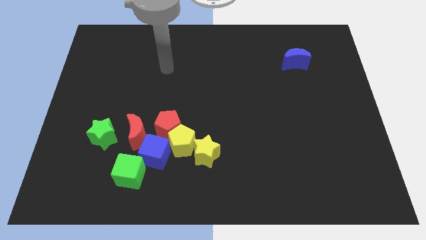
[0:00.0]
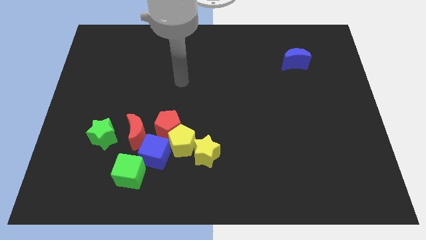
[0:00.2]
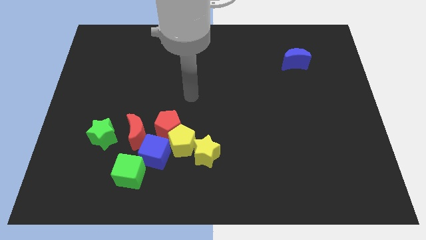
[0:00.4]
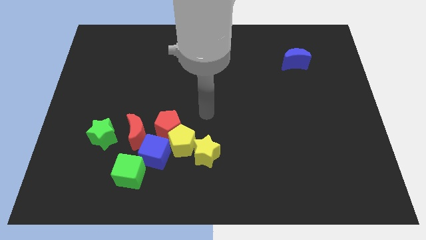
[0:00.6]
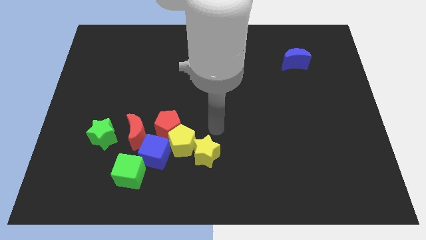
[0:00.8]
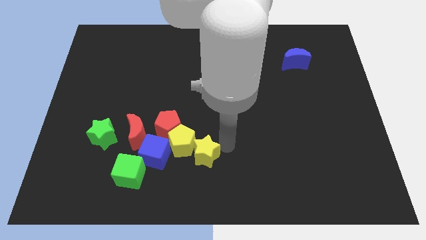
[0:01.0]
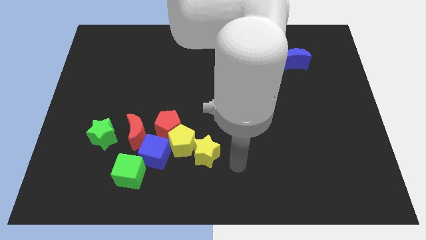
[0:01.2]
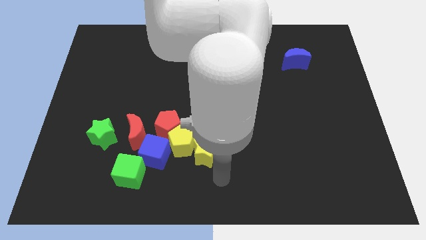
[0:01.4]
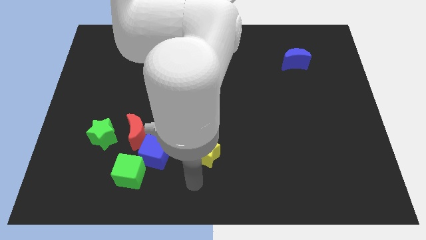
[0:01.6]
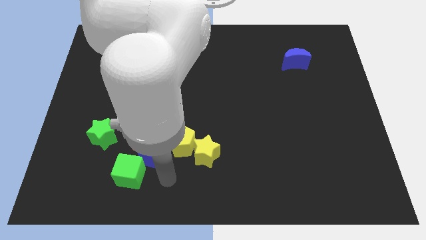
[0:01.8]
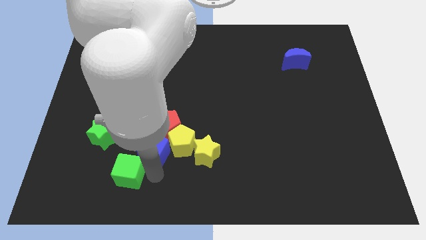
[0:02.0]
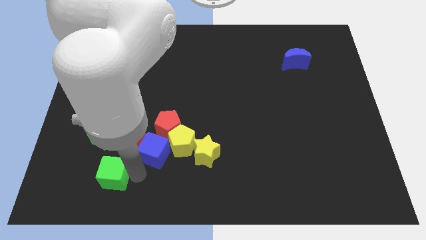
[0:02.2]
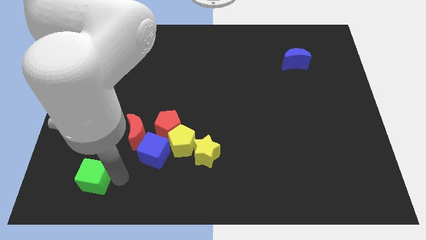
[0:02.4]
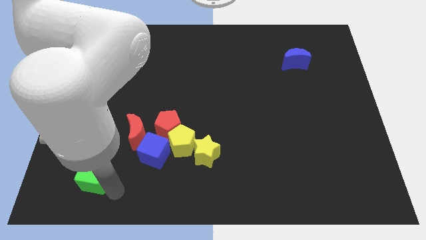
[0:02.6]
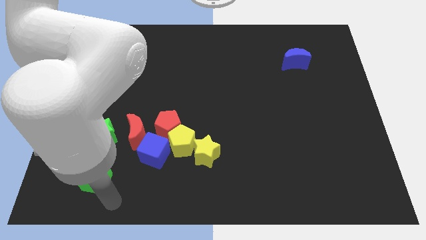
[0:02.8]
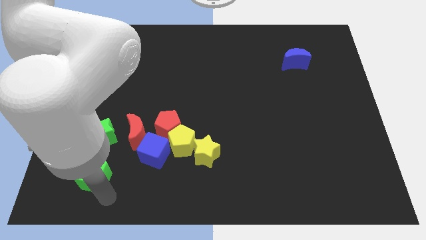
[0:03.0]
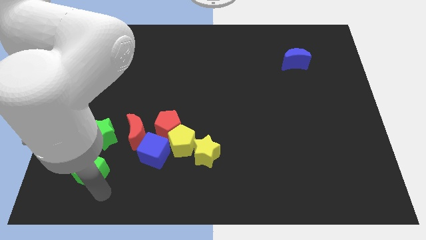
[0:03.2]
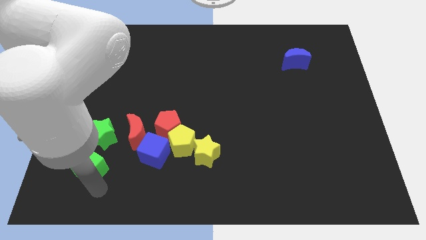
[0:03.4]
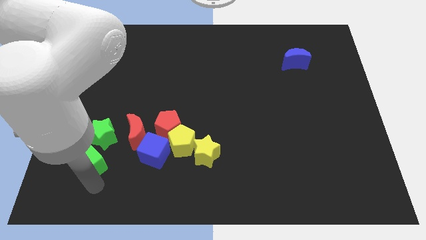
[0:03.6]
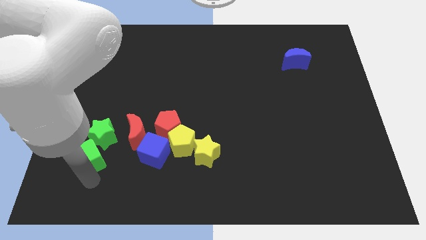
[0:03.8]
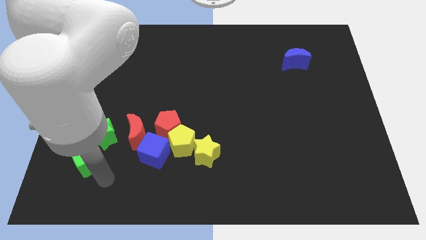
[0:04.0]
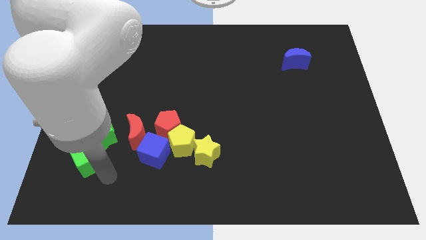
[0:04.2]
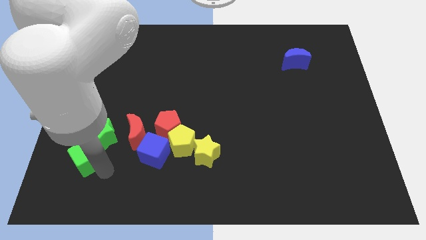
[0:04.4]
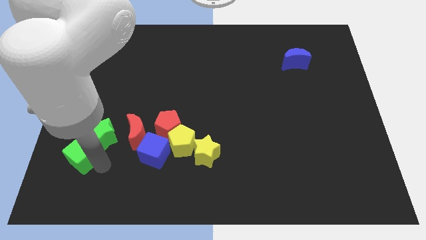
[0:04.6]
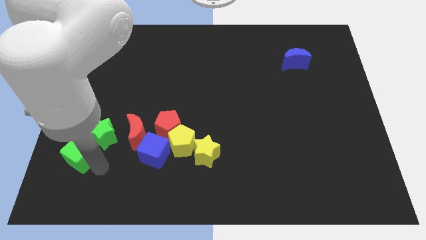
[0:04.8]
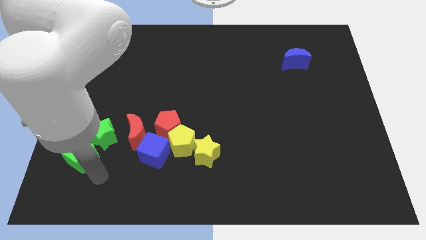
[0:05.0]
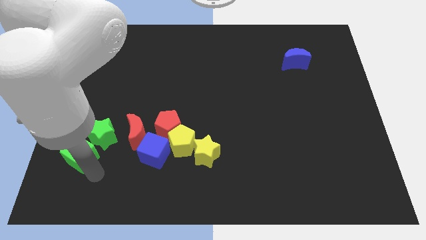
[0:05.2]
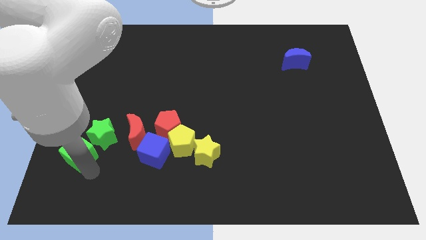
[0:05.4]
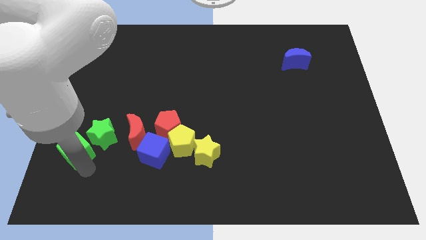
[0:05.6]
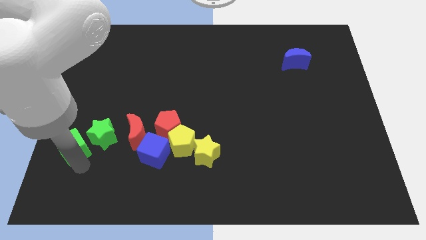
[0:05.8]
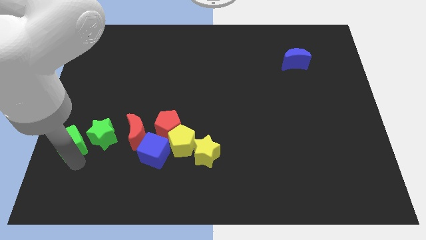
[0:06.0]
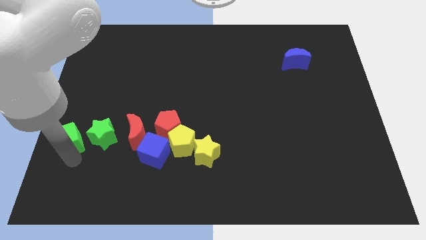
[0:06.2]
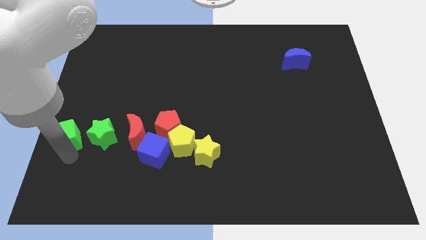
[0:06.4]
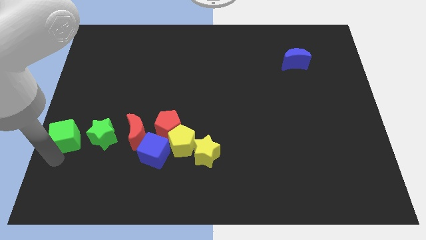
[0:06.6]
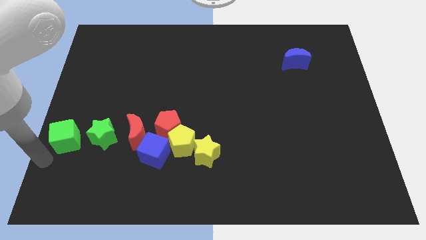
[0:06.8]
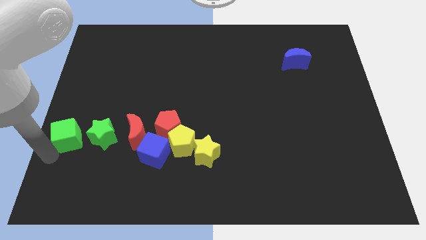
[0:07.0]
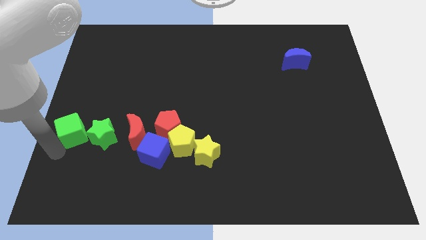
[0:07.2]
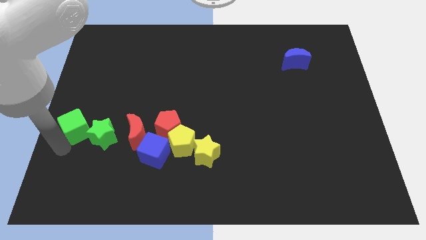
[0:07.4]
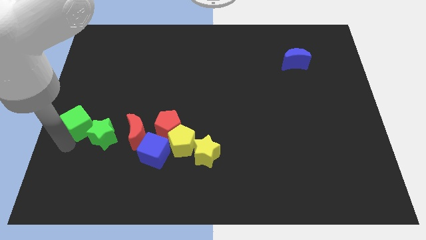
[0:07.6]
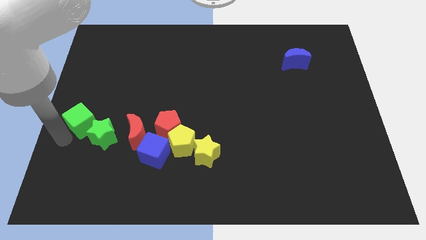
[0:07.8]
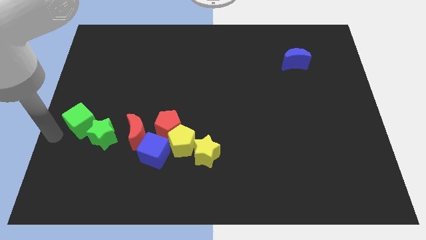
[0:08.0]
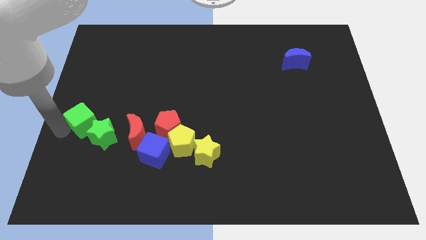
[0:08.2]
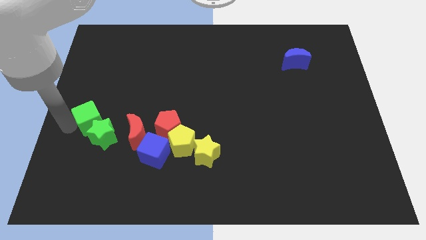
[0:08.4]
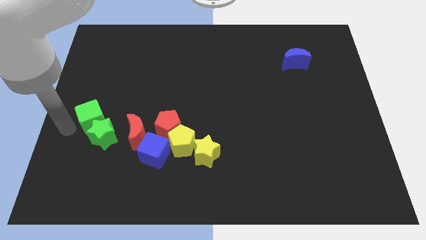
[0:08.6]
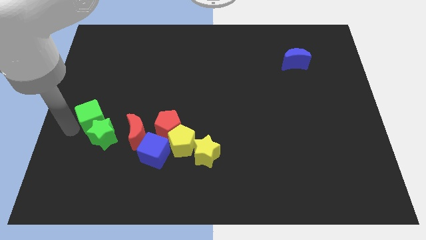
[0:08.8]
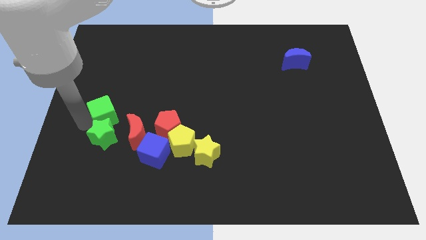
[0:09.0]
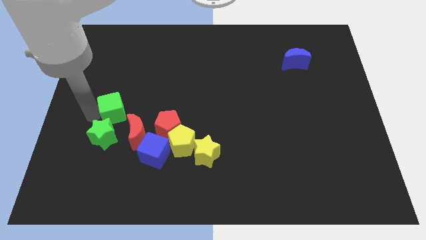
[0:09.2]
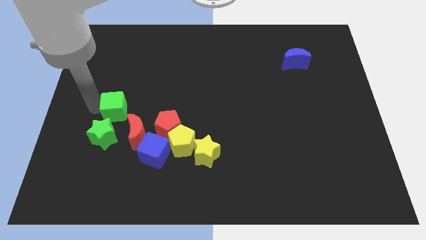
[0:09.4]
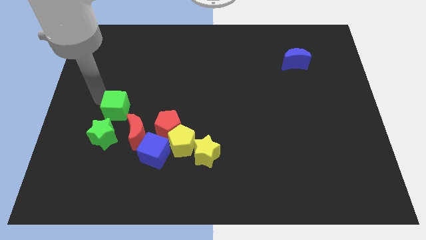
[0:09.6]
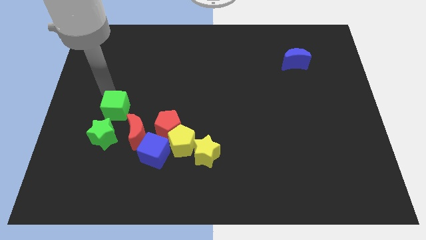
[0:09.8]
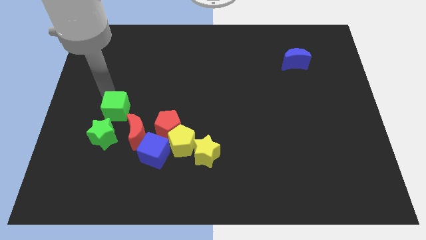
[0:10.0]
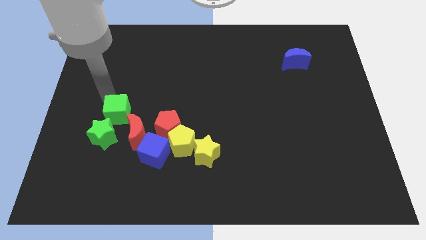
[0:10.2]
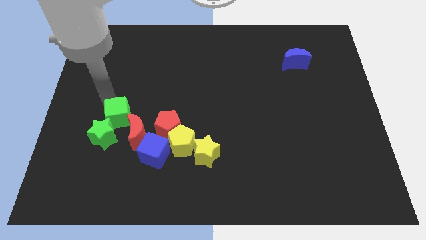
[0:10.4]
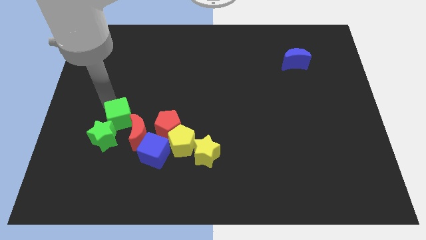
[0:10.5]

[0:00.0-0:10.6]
move the green cube to the top left side of the blue cube
